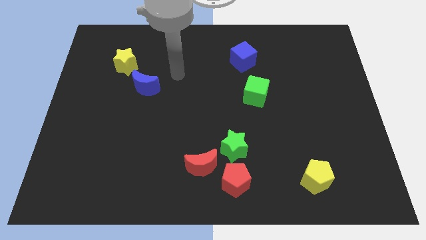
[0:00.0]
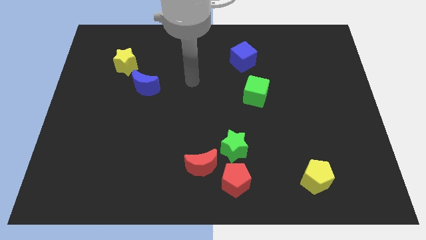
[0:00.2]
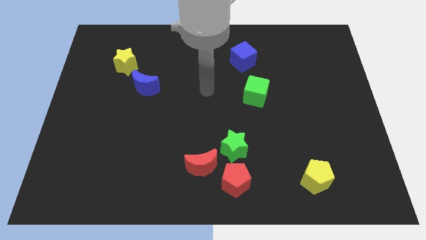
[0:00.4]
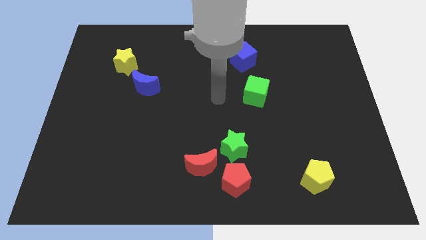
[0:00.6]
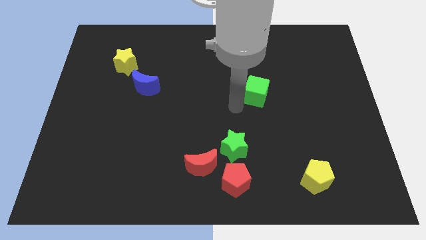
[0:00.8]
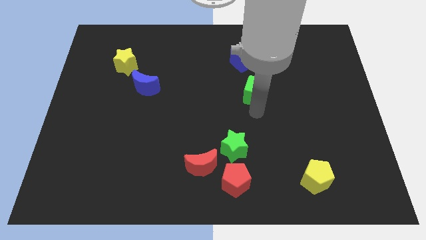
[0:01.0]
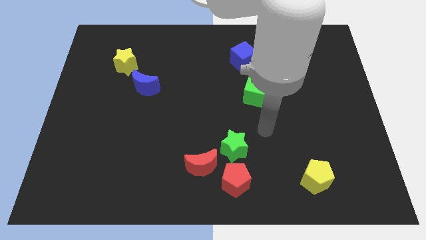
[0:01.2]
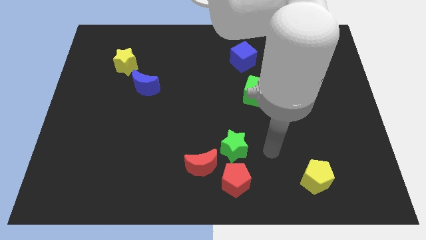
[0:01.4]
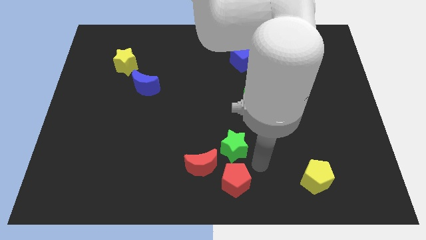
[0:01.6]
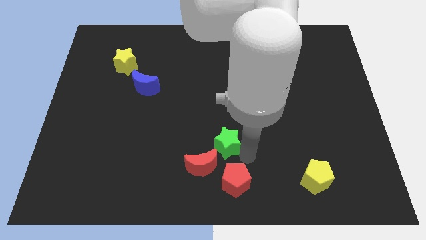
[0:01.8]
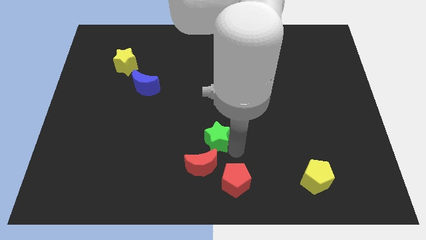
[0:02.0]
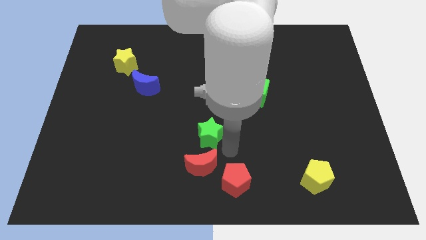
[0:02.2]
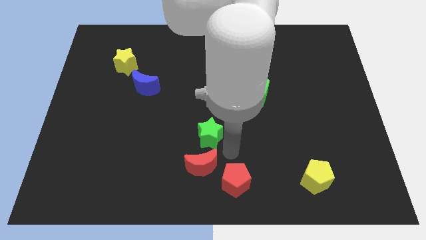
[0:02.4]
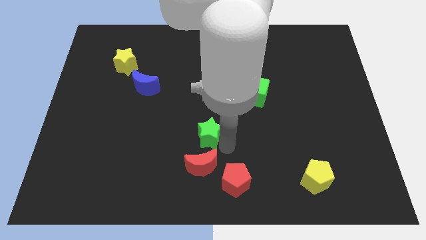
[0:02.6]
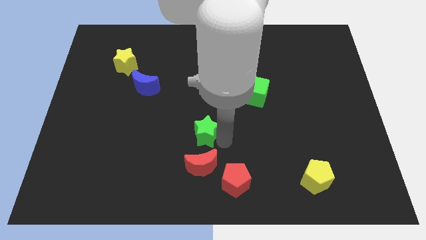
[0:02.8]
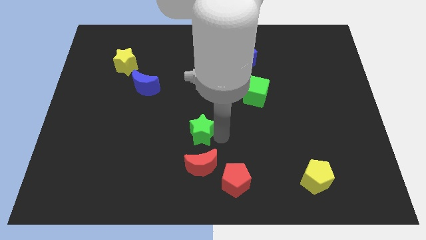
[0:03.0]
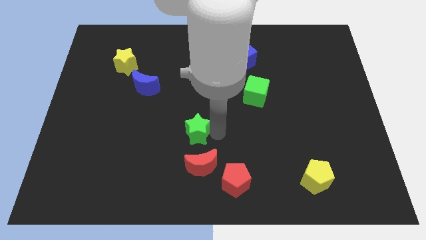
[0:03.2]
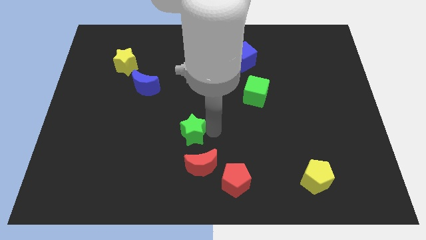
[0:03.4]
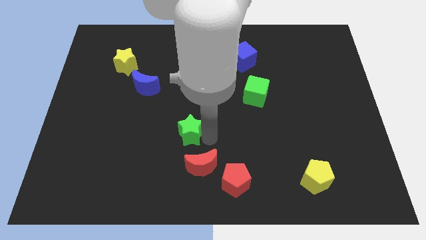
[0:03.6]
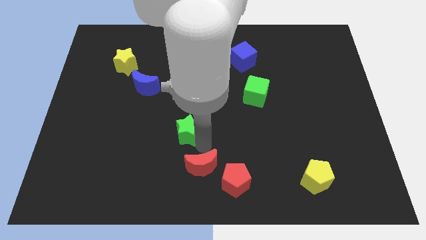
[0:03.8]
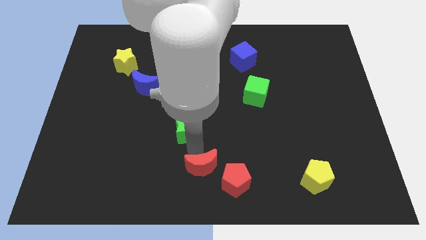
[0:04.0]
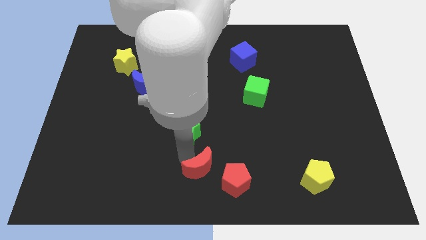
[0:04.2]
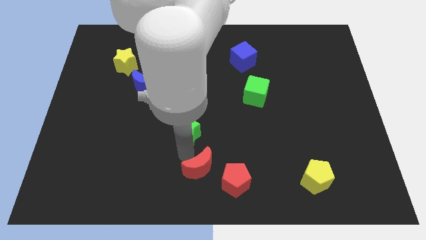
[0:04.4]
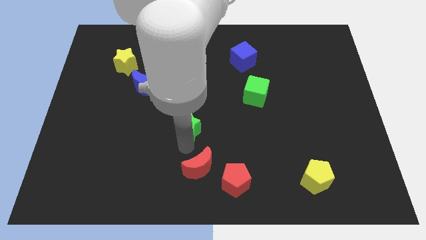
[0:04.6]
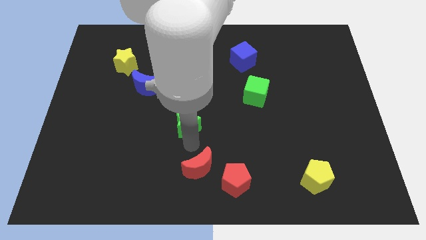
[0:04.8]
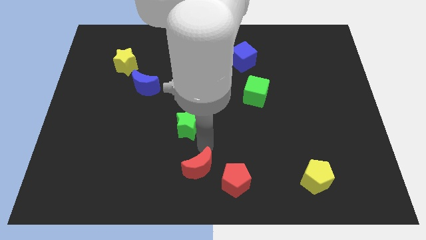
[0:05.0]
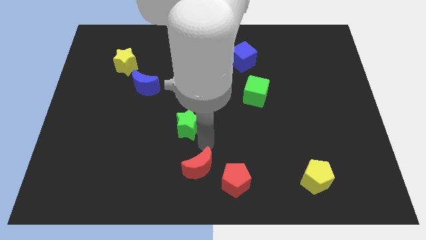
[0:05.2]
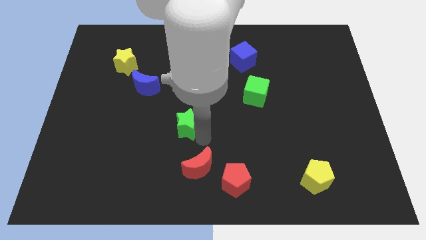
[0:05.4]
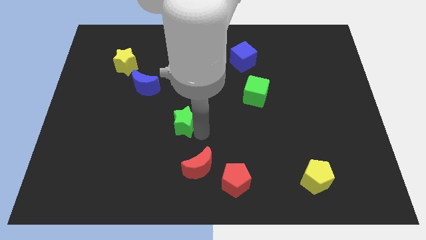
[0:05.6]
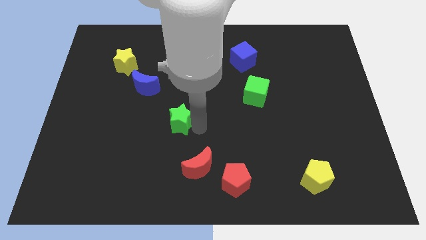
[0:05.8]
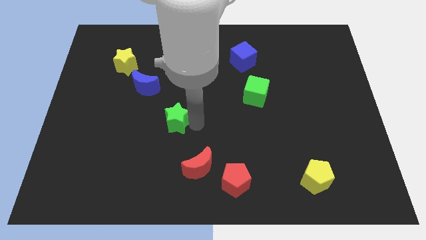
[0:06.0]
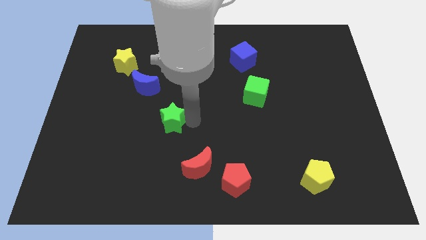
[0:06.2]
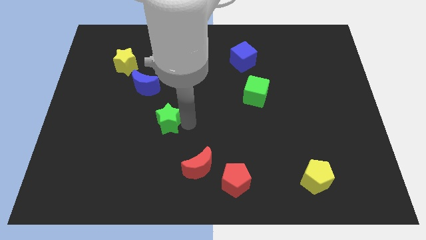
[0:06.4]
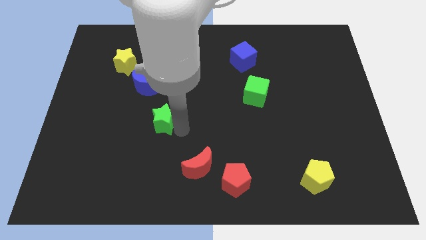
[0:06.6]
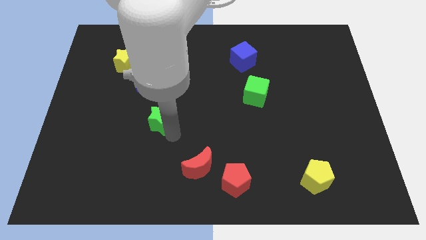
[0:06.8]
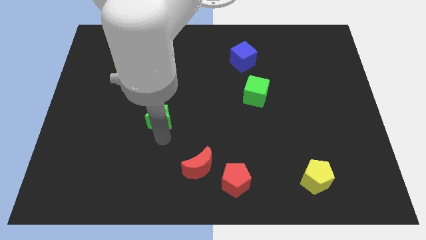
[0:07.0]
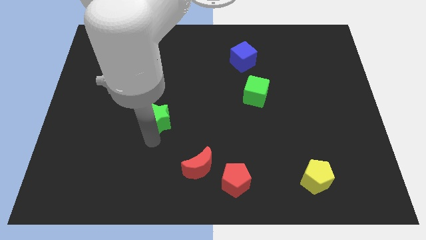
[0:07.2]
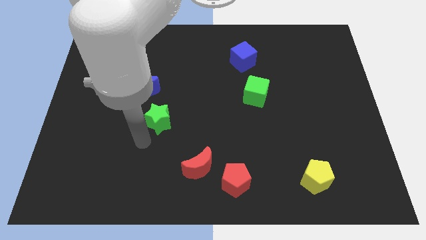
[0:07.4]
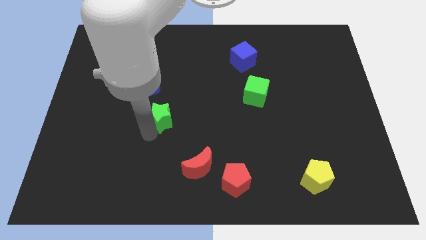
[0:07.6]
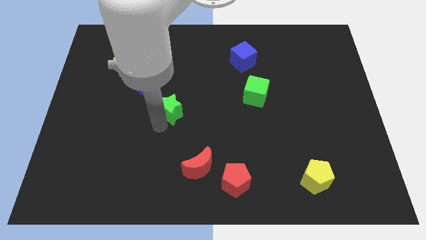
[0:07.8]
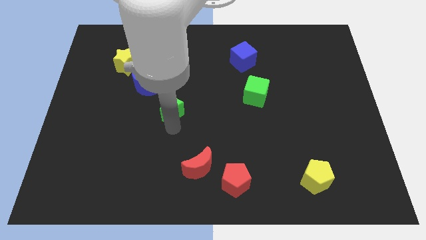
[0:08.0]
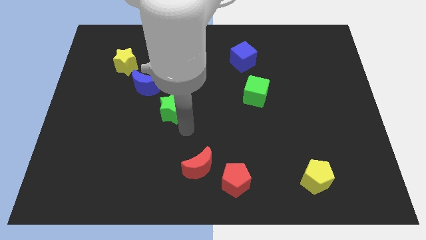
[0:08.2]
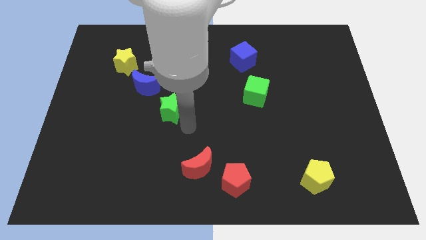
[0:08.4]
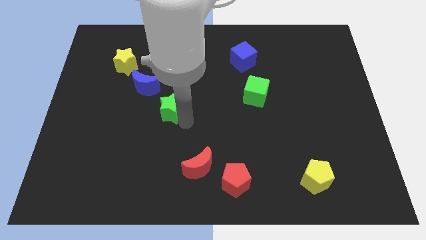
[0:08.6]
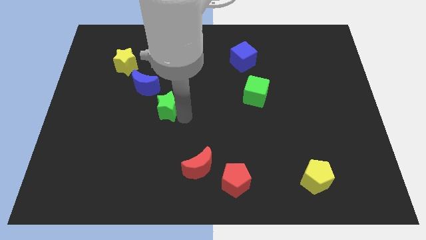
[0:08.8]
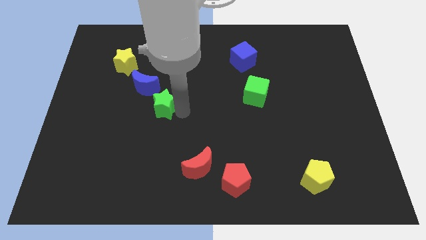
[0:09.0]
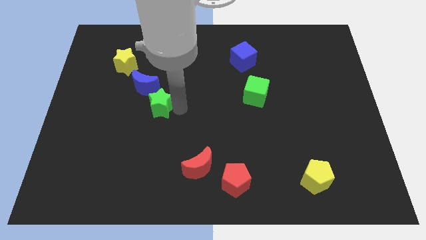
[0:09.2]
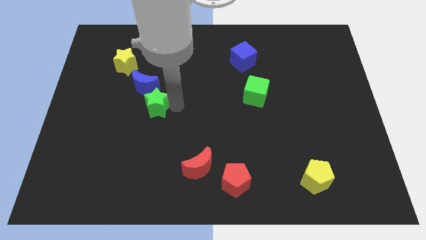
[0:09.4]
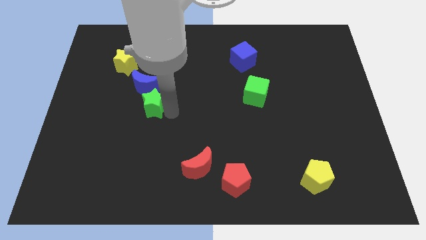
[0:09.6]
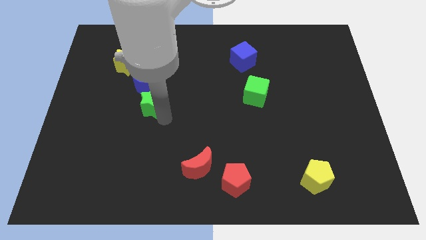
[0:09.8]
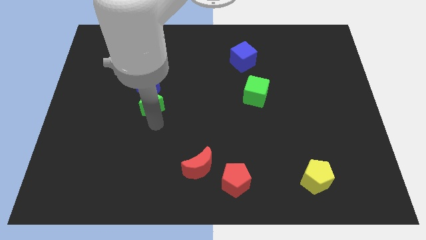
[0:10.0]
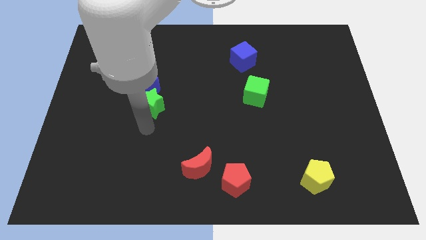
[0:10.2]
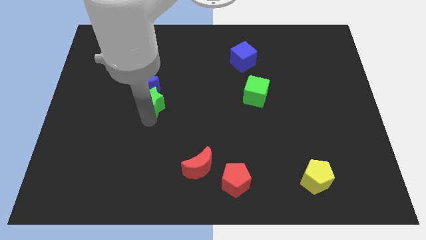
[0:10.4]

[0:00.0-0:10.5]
slide the green star to the blue moon

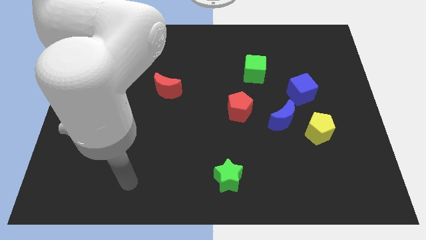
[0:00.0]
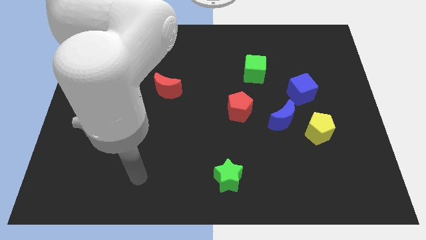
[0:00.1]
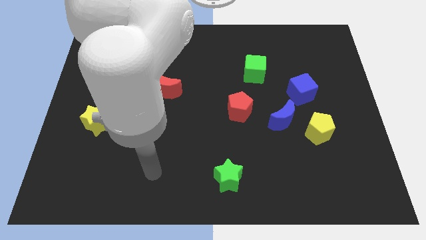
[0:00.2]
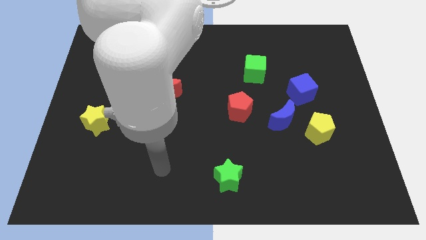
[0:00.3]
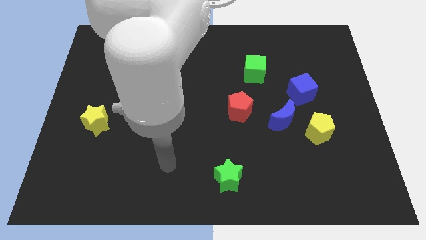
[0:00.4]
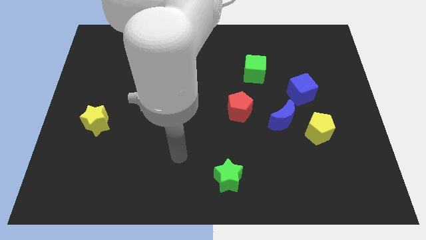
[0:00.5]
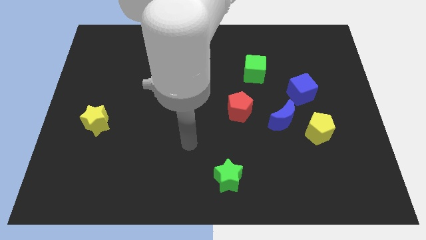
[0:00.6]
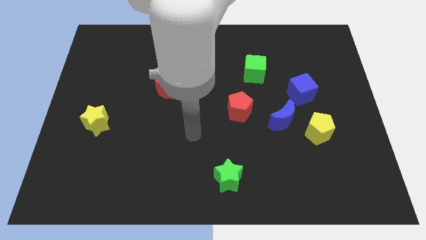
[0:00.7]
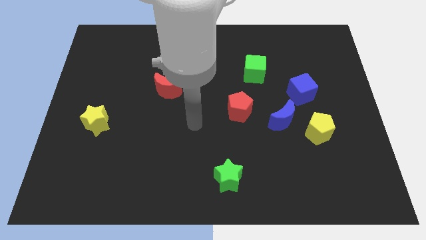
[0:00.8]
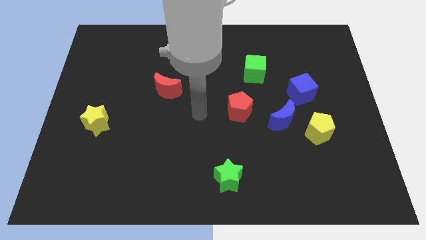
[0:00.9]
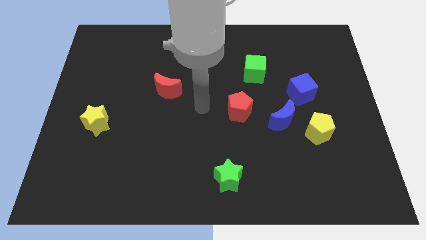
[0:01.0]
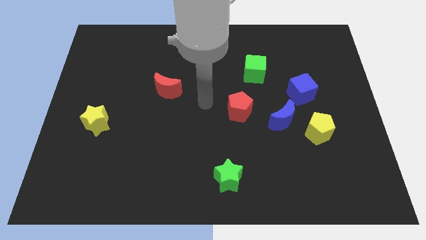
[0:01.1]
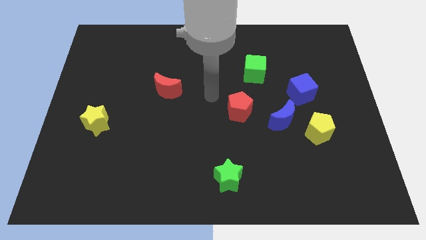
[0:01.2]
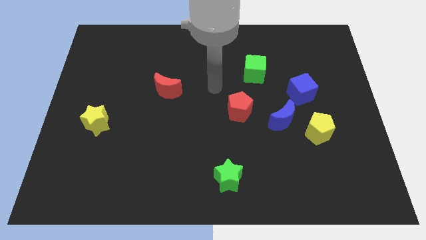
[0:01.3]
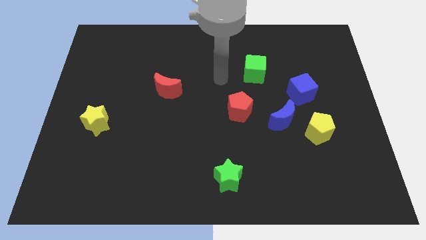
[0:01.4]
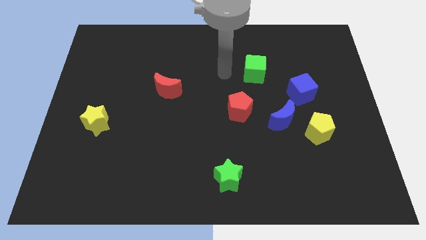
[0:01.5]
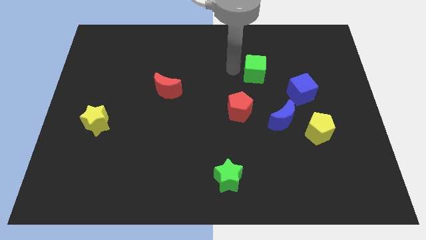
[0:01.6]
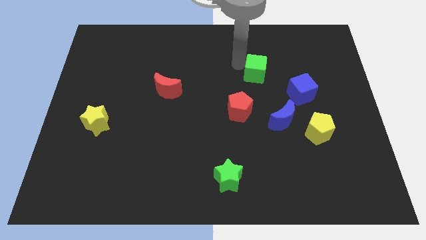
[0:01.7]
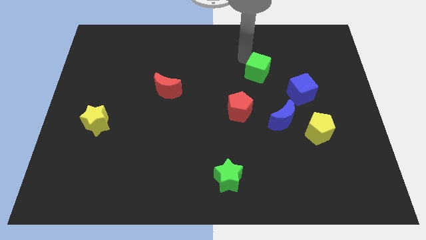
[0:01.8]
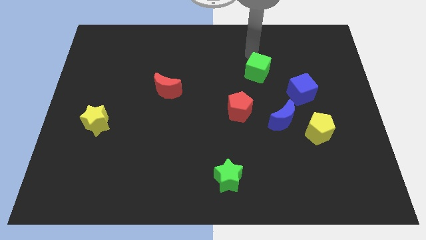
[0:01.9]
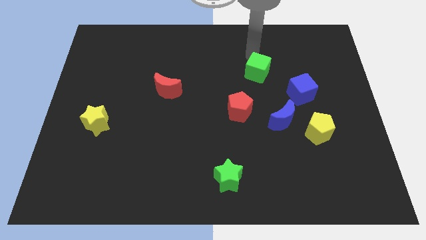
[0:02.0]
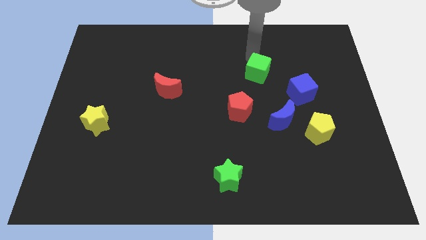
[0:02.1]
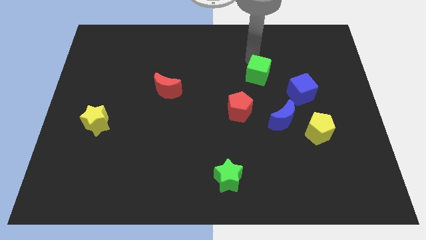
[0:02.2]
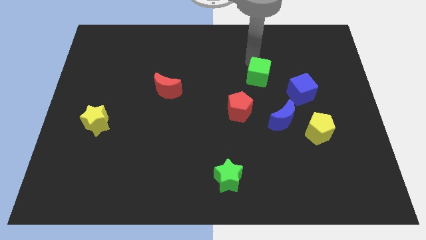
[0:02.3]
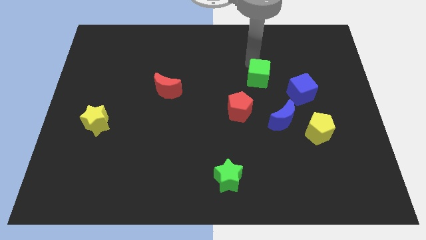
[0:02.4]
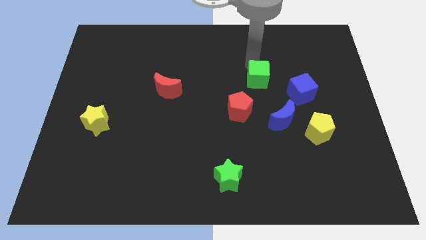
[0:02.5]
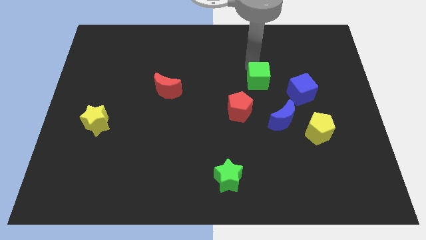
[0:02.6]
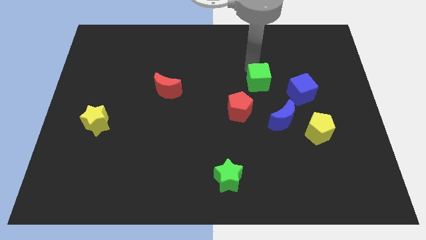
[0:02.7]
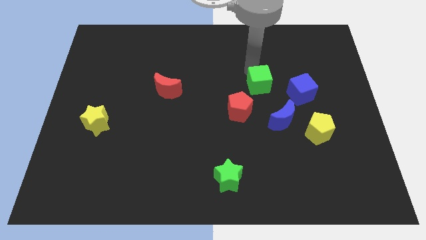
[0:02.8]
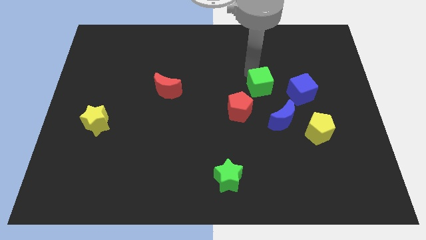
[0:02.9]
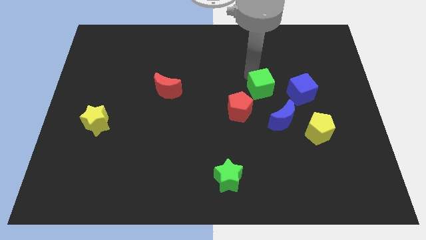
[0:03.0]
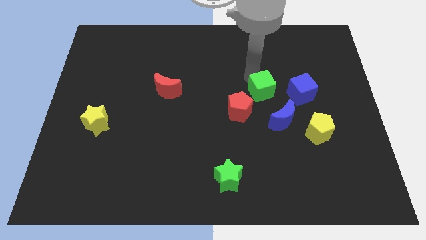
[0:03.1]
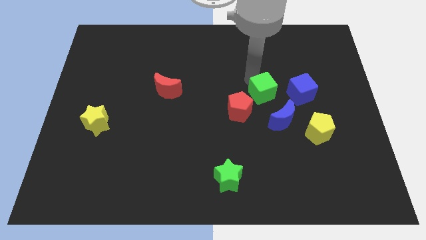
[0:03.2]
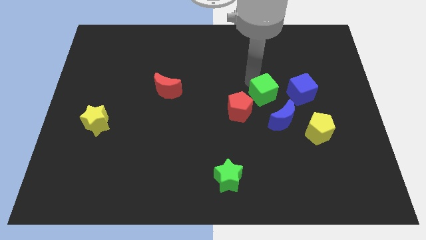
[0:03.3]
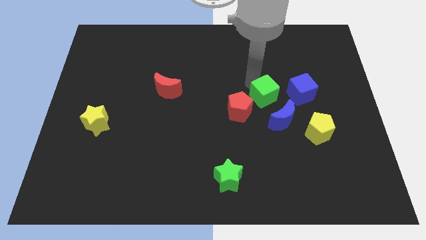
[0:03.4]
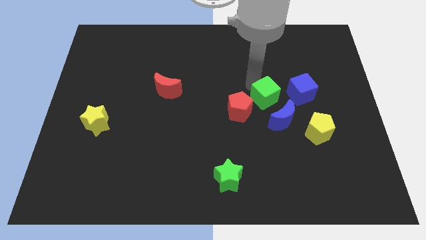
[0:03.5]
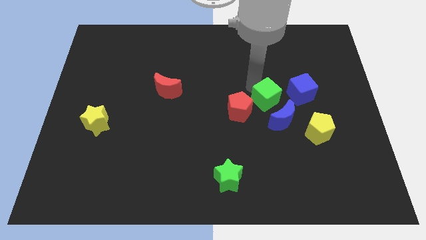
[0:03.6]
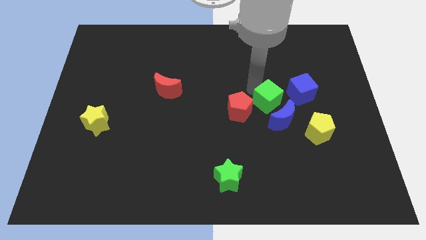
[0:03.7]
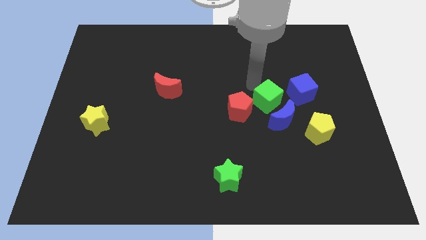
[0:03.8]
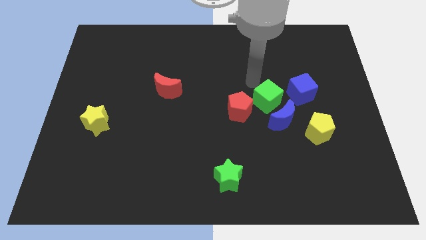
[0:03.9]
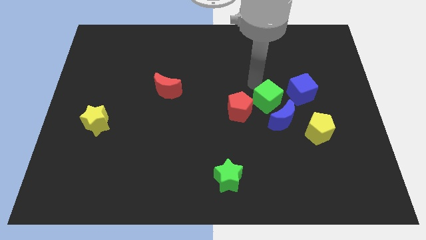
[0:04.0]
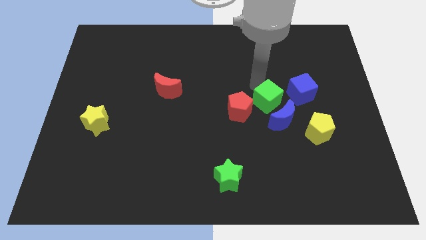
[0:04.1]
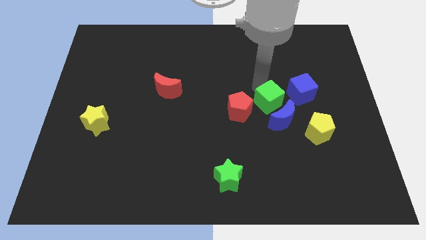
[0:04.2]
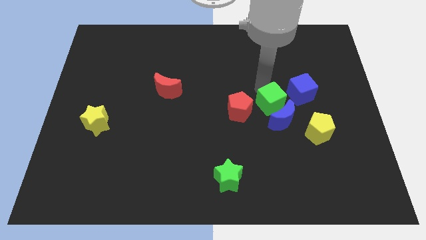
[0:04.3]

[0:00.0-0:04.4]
push the green cube towards the blue moon
